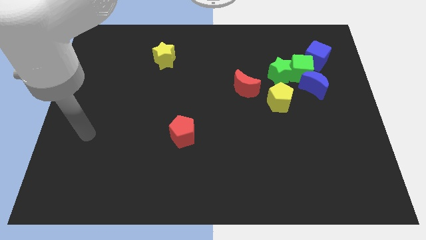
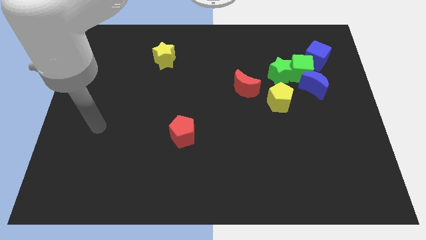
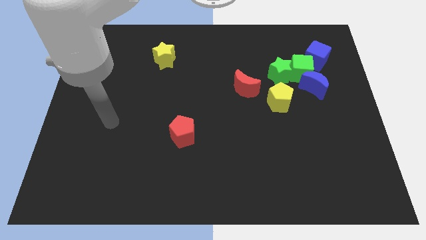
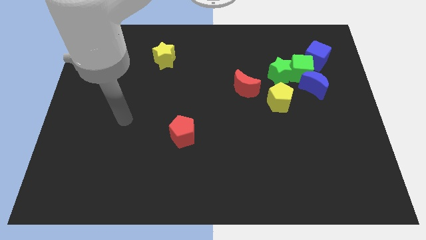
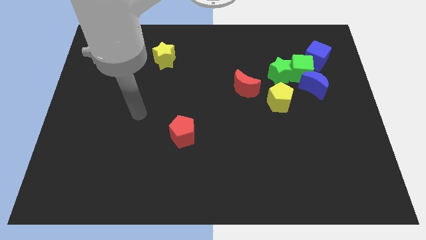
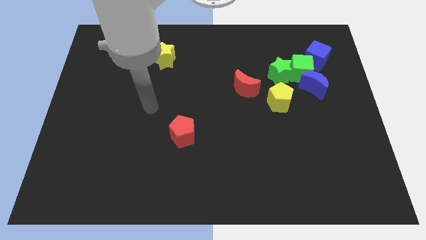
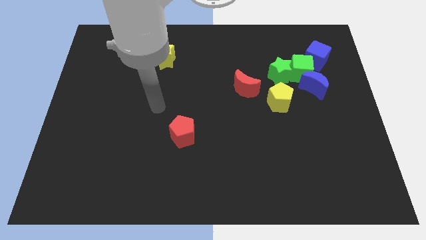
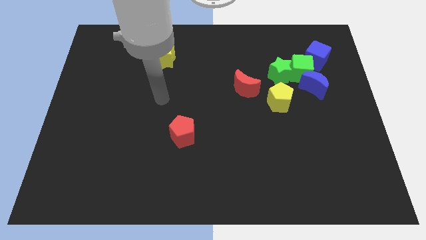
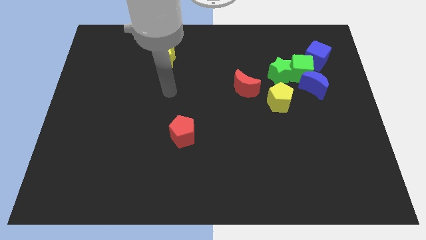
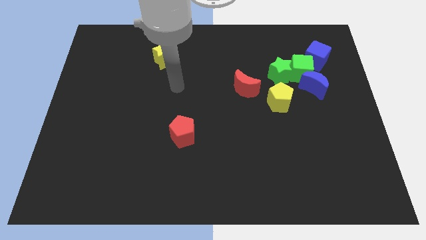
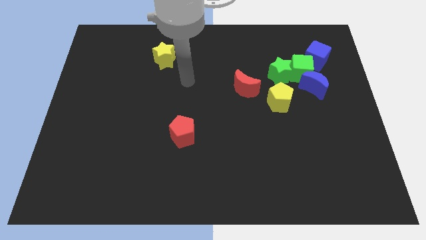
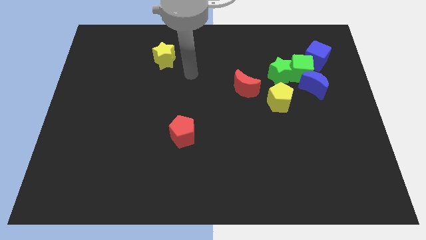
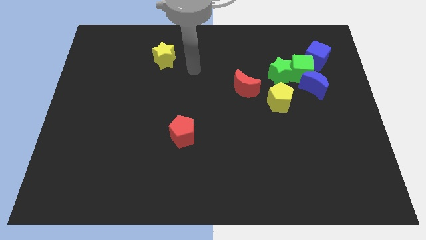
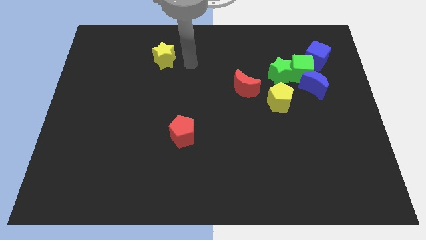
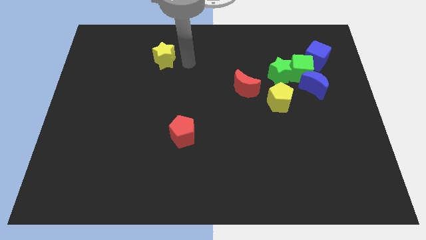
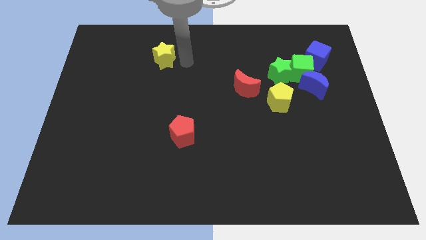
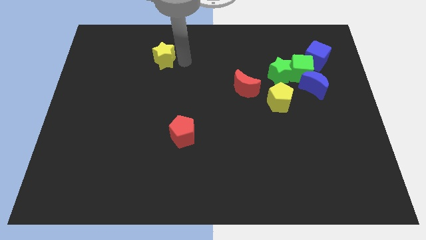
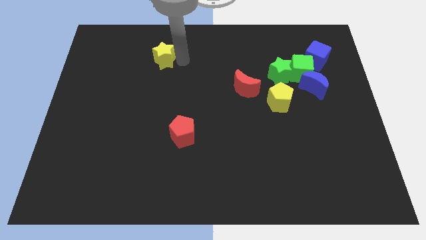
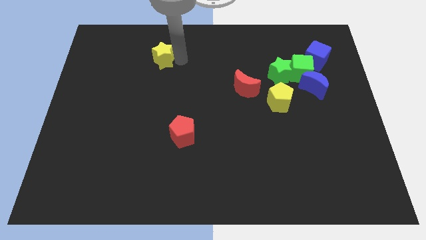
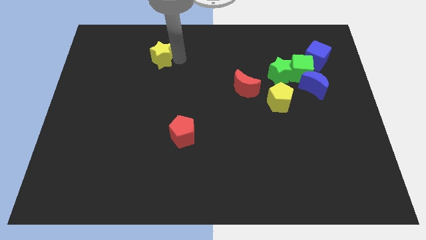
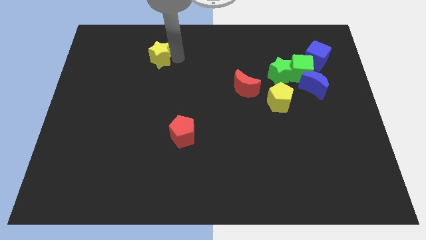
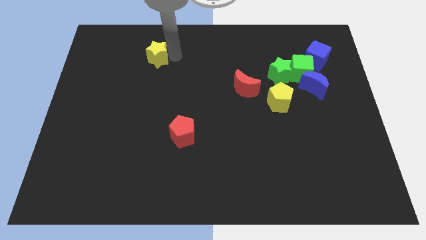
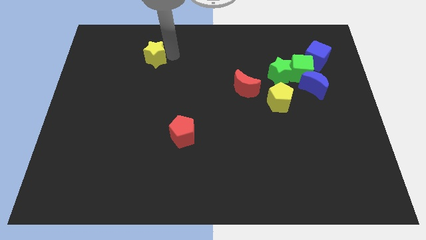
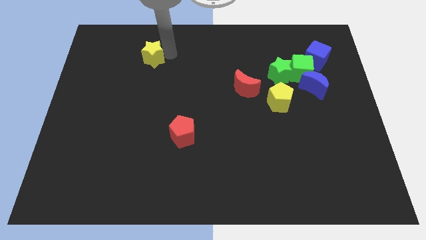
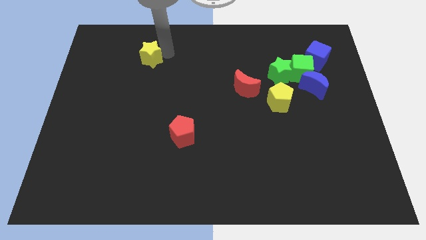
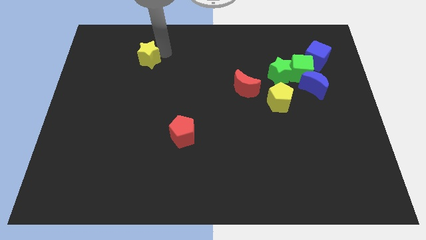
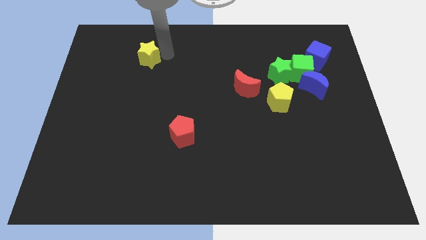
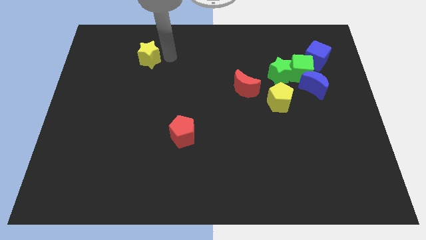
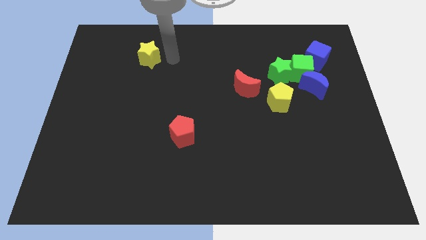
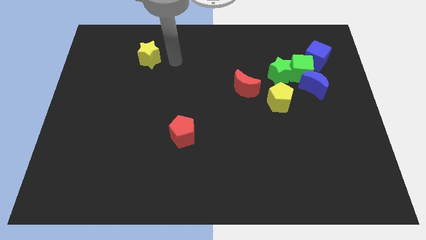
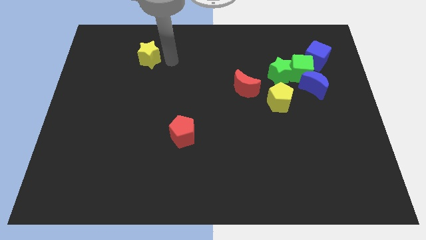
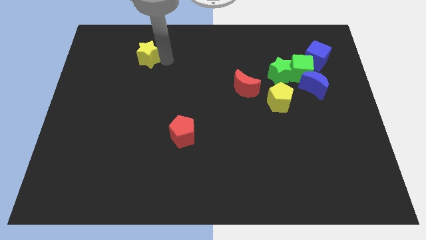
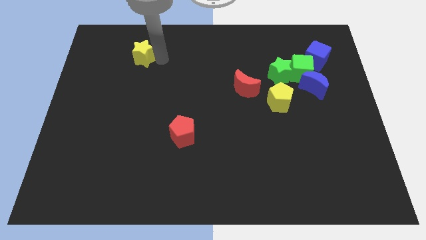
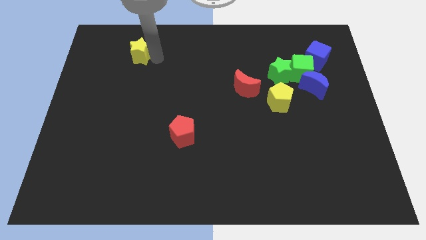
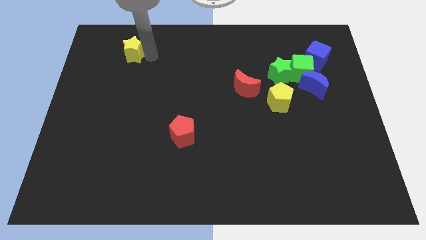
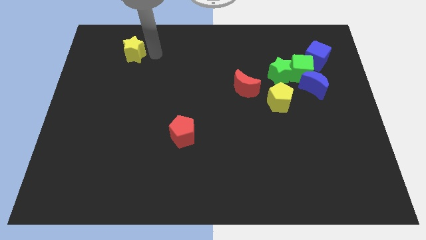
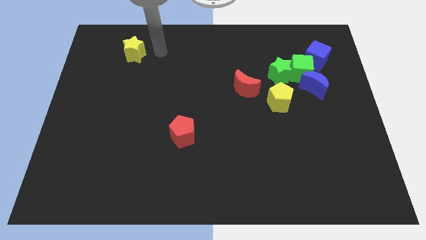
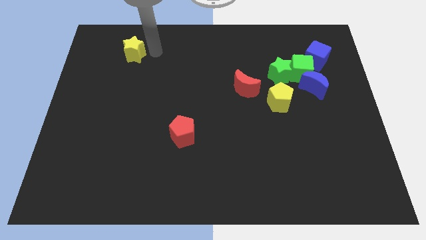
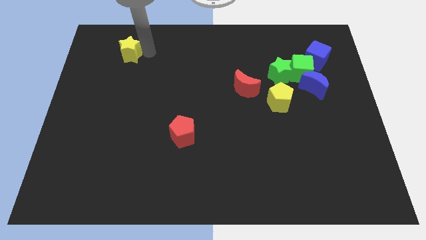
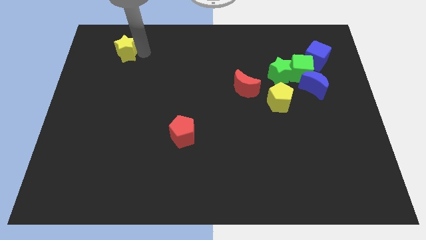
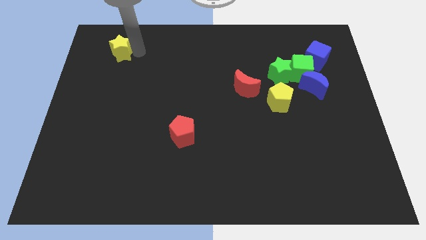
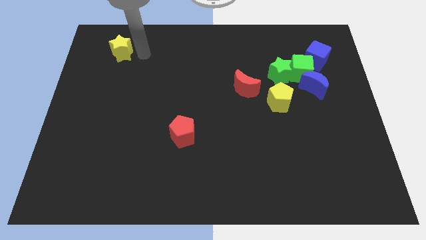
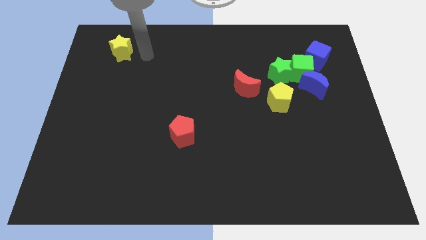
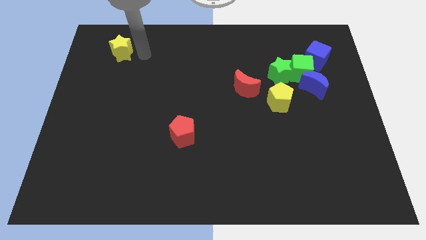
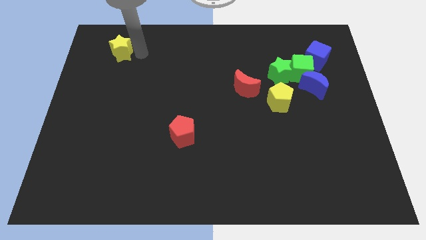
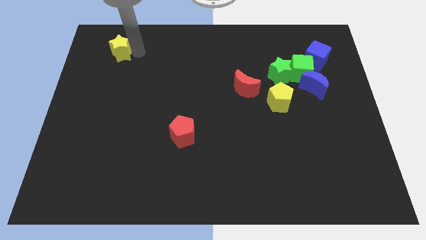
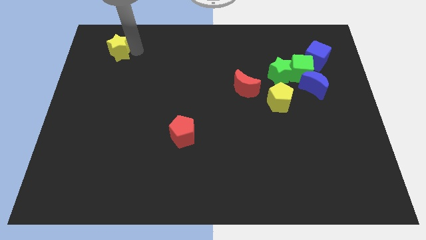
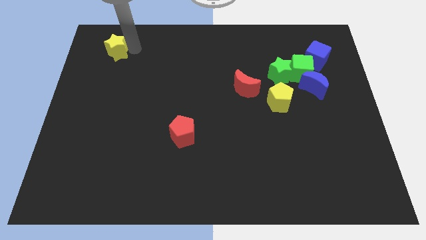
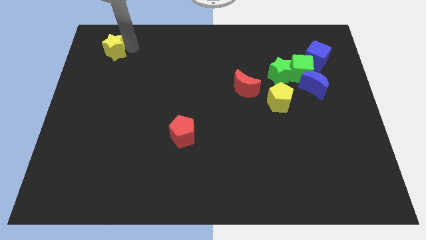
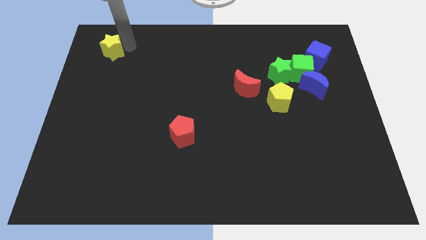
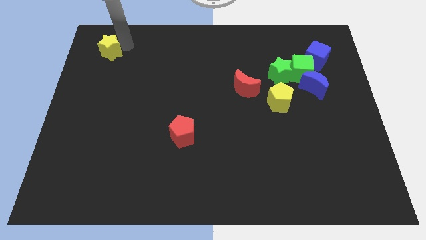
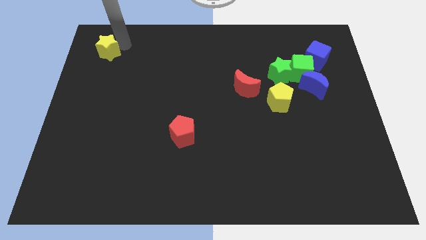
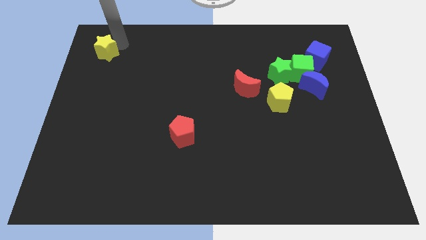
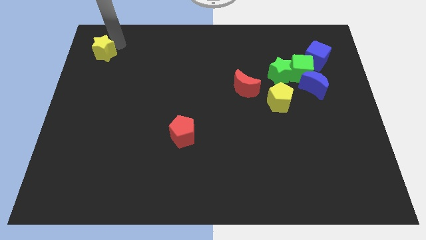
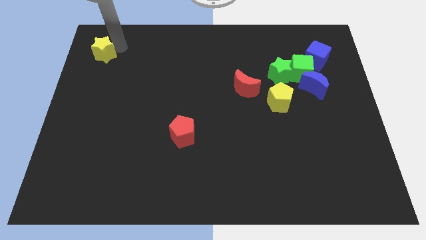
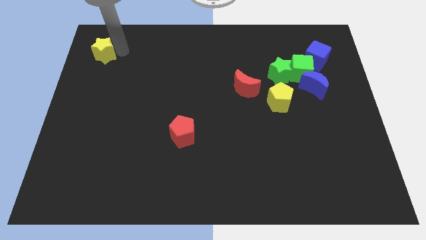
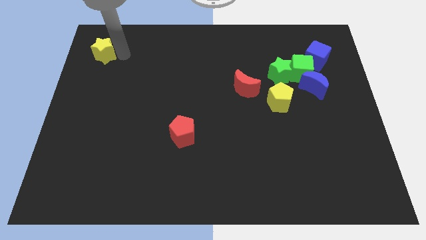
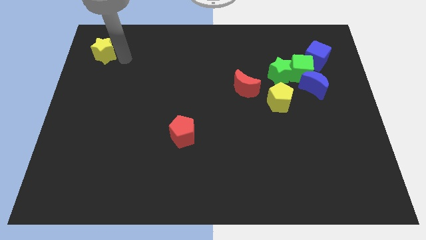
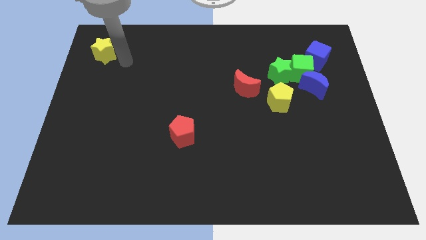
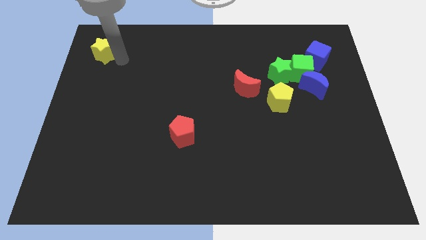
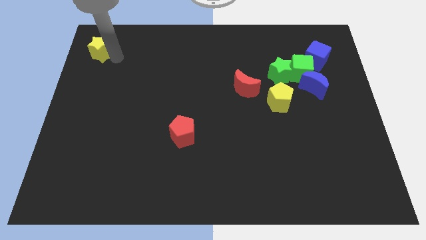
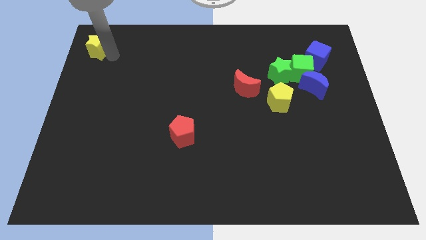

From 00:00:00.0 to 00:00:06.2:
put the yellow star to the upper left corner

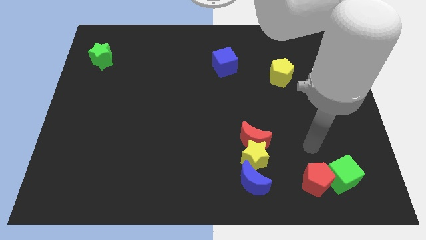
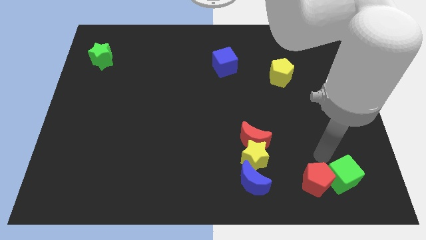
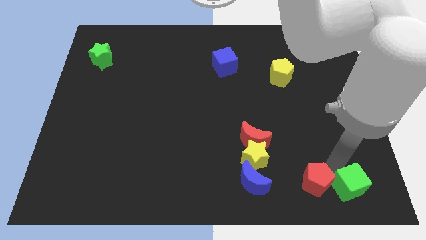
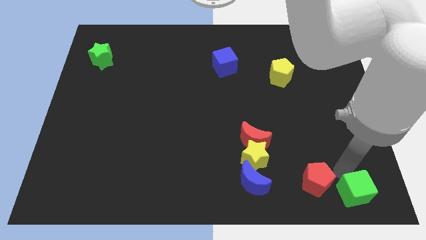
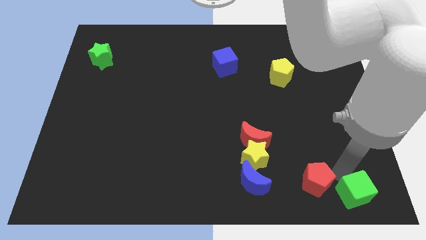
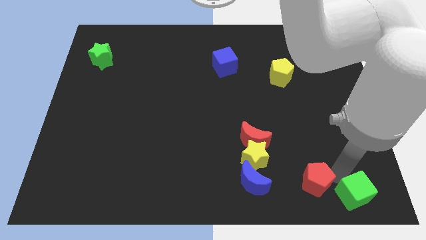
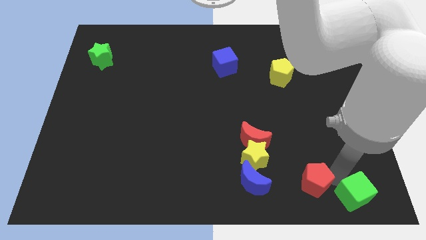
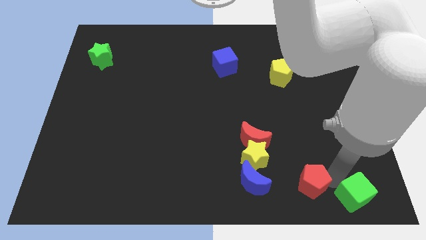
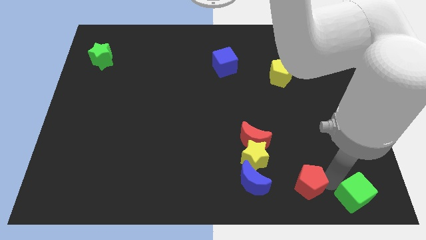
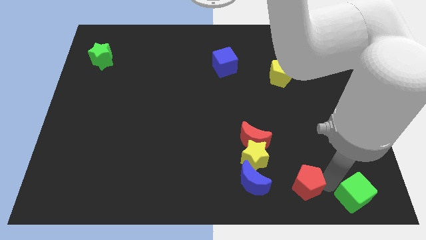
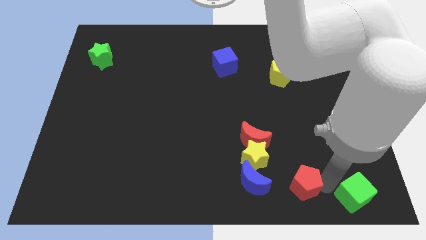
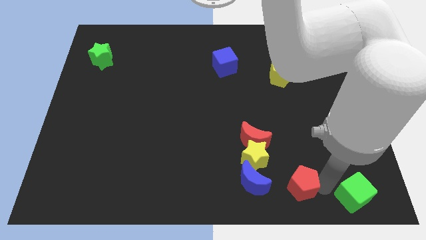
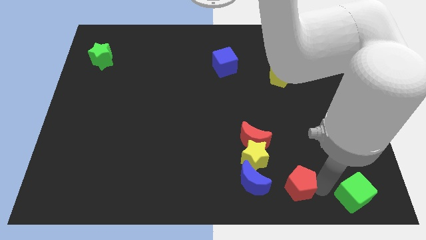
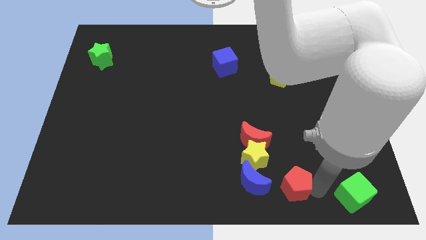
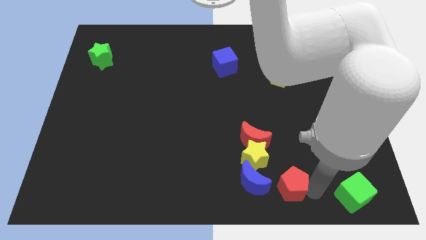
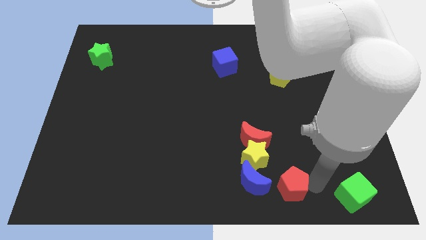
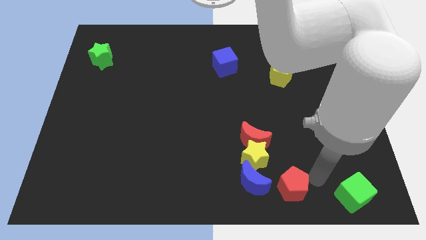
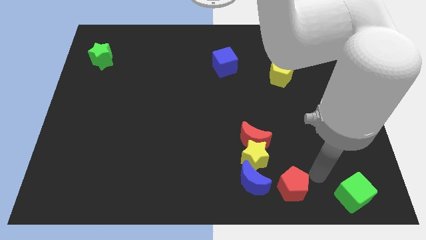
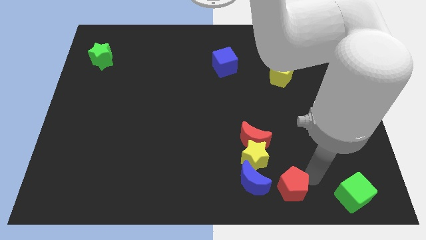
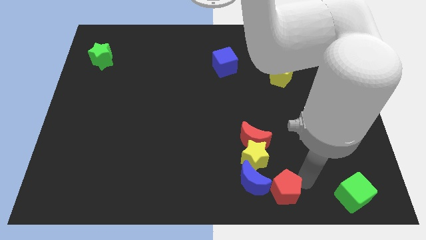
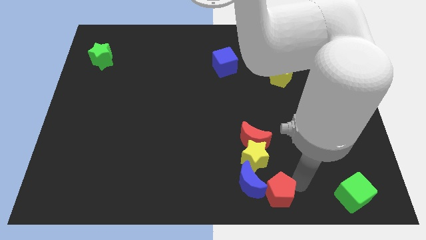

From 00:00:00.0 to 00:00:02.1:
put the red pentagon to the bottom side
